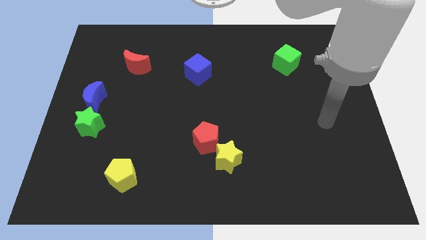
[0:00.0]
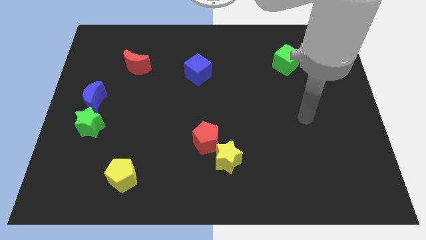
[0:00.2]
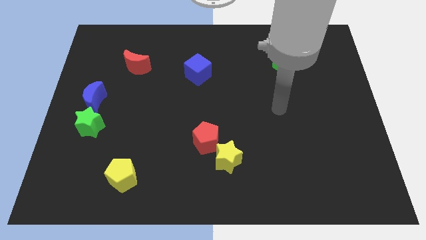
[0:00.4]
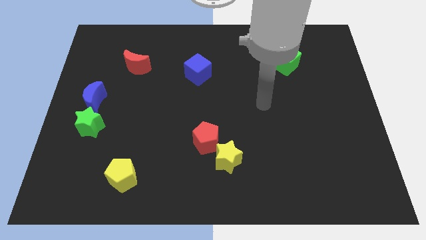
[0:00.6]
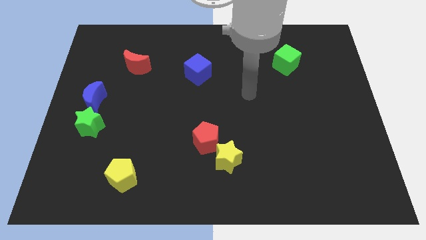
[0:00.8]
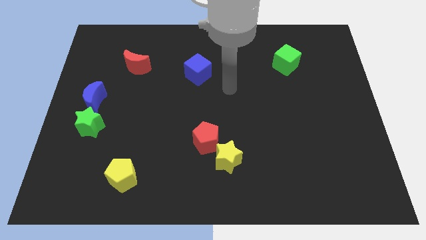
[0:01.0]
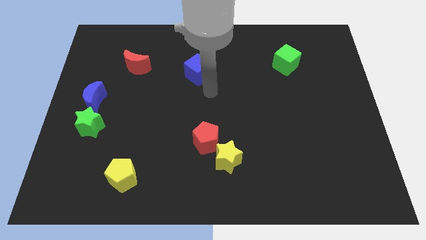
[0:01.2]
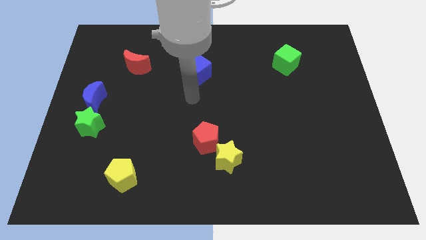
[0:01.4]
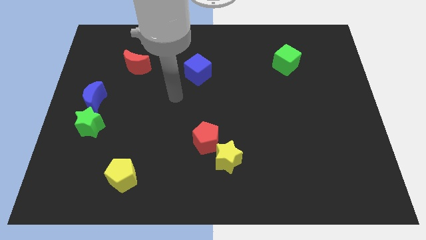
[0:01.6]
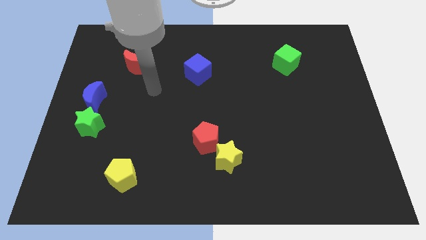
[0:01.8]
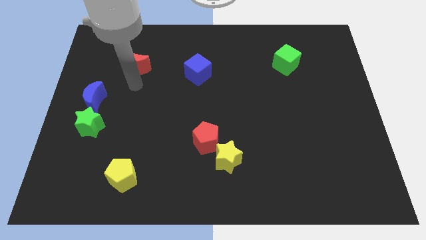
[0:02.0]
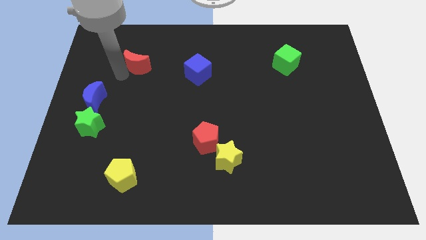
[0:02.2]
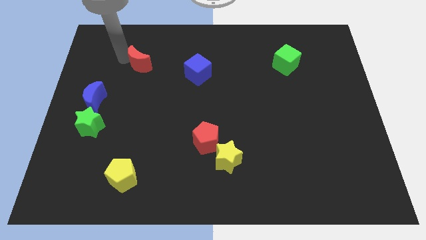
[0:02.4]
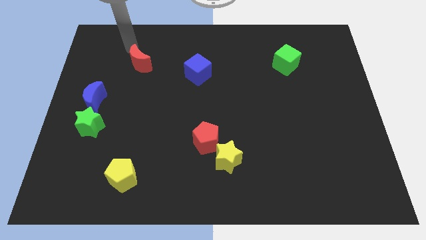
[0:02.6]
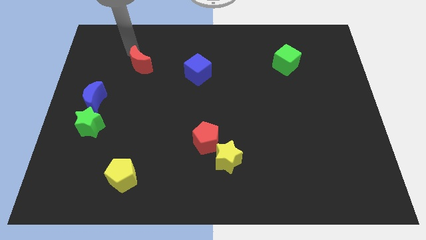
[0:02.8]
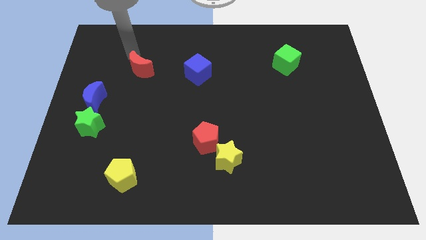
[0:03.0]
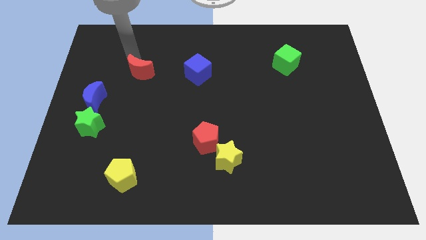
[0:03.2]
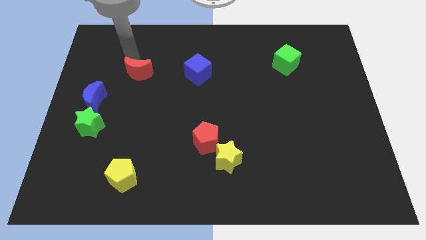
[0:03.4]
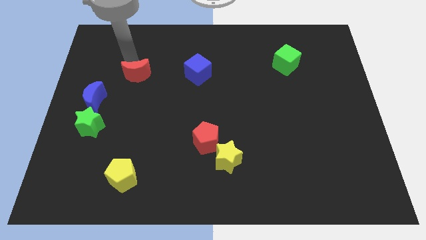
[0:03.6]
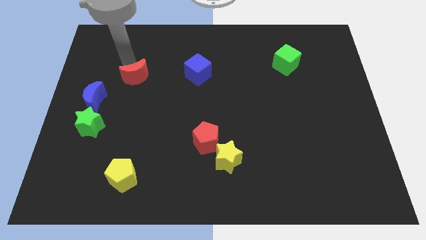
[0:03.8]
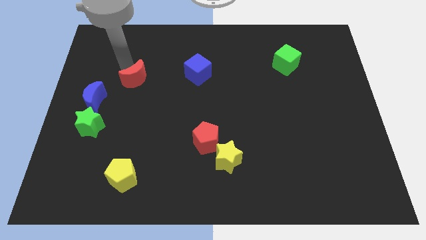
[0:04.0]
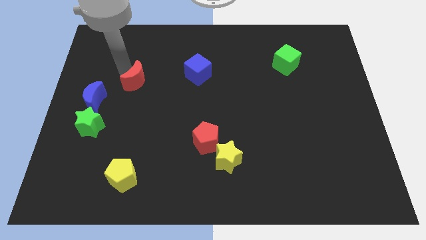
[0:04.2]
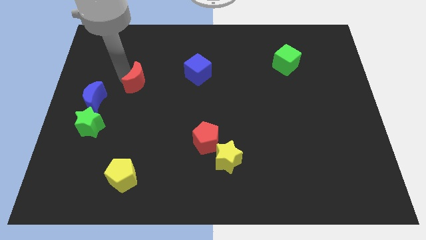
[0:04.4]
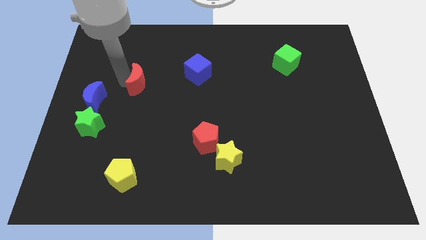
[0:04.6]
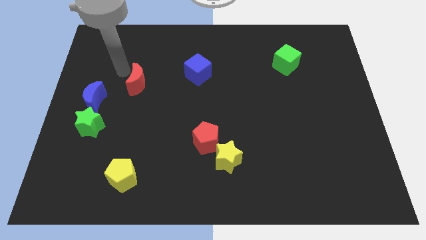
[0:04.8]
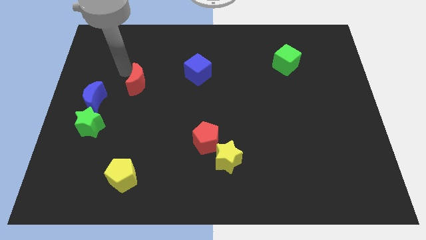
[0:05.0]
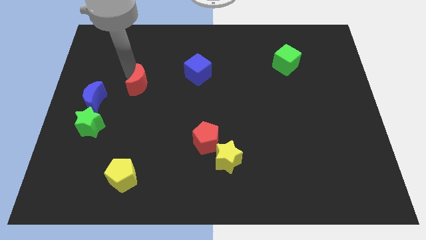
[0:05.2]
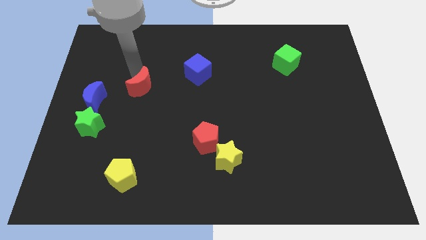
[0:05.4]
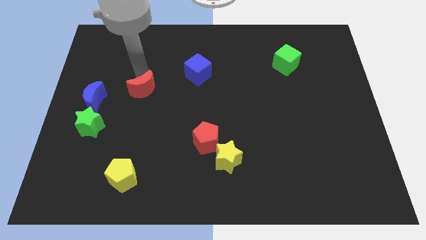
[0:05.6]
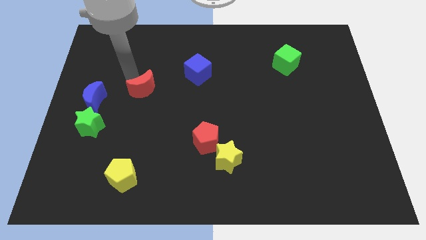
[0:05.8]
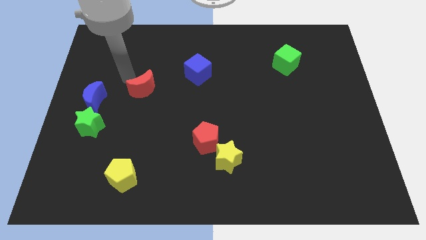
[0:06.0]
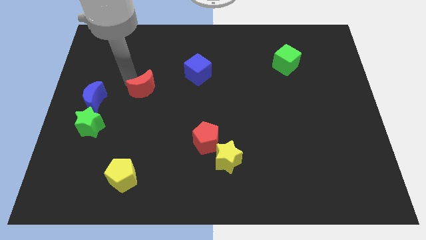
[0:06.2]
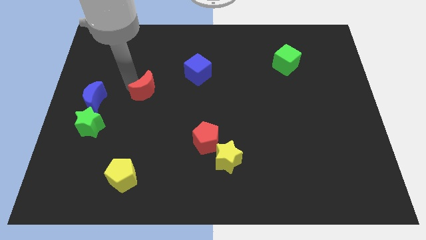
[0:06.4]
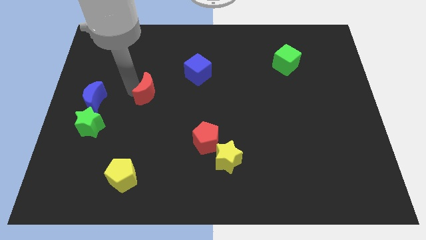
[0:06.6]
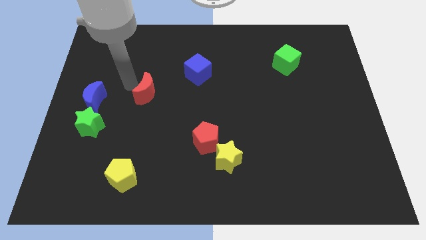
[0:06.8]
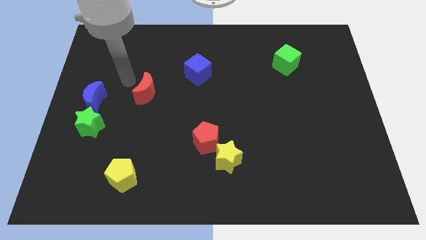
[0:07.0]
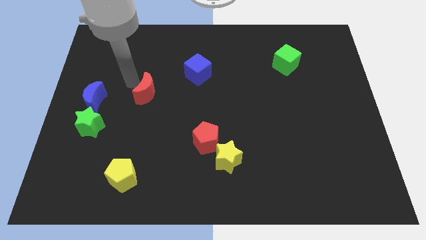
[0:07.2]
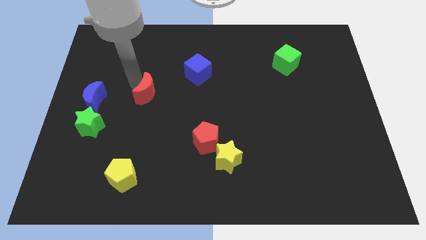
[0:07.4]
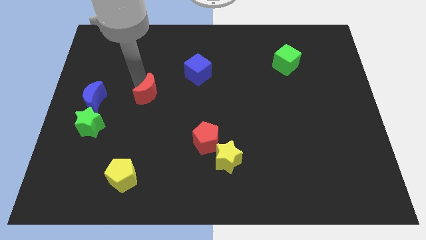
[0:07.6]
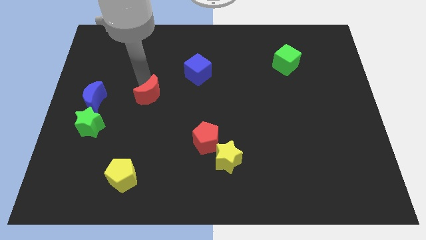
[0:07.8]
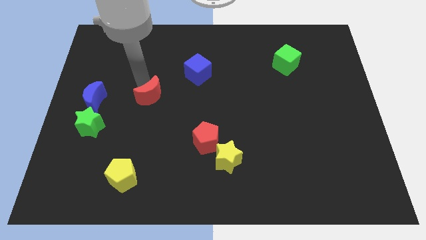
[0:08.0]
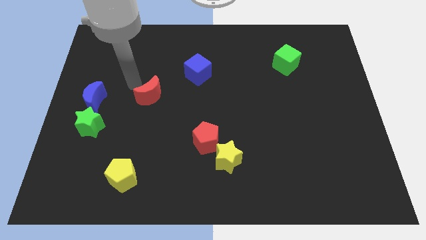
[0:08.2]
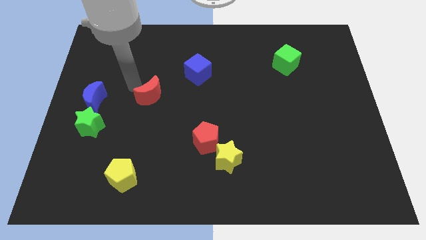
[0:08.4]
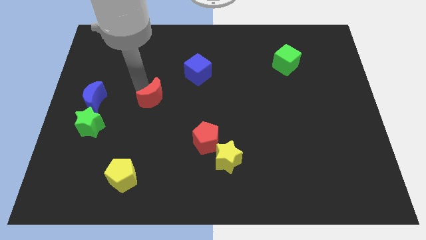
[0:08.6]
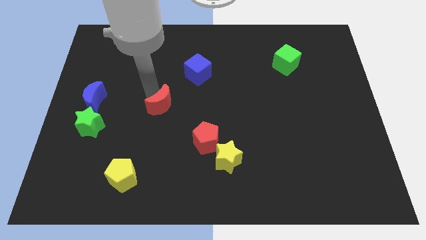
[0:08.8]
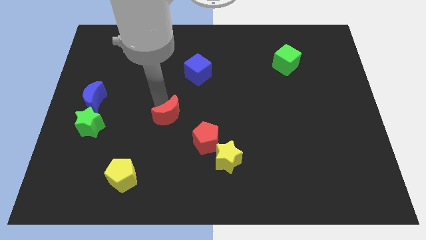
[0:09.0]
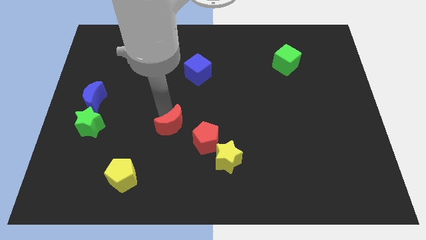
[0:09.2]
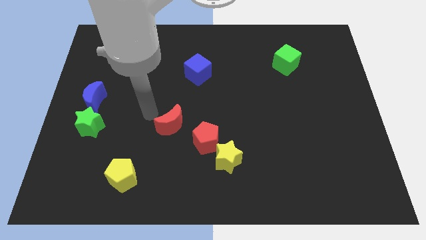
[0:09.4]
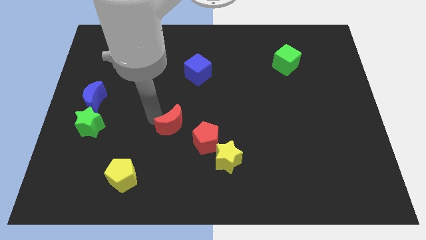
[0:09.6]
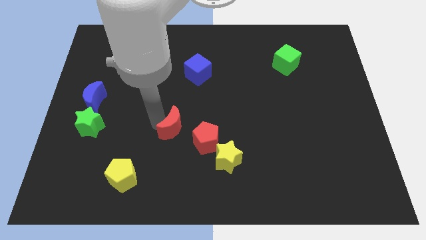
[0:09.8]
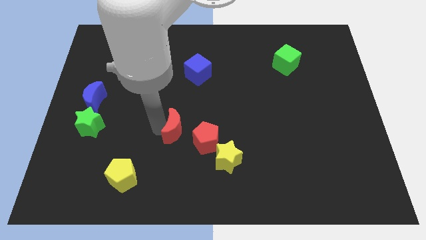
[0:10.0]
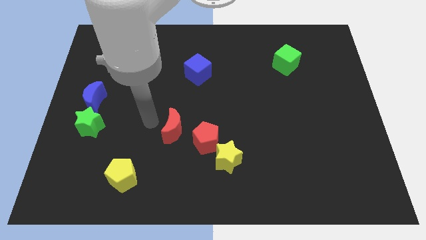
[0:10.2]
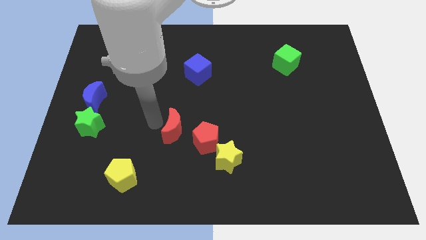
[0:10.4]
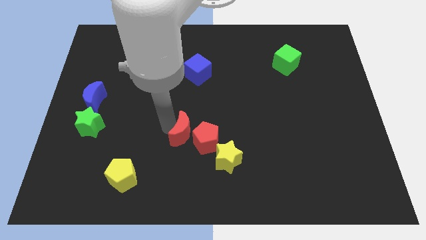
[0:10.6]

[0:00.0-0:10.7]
push the red moon next to the red pentagon

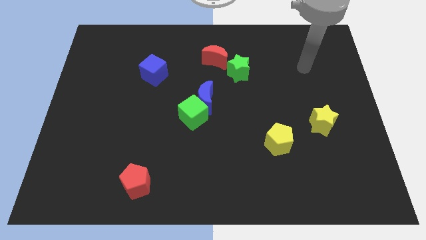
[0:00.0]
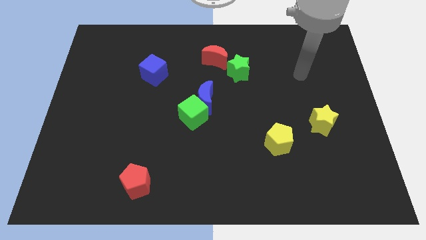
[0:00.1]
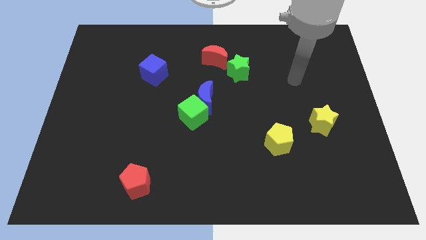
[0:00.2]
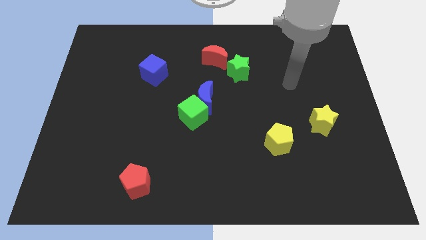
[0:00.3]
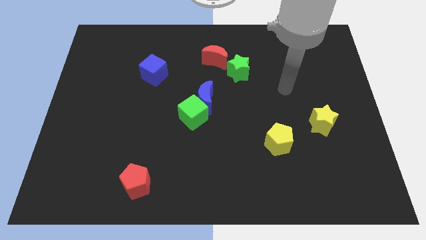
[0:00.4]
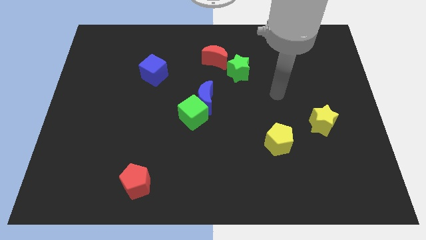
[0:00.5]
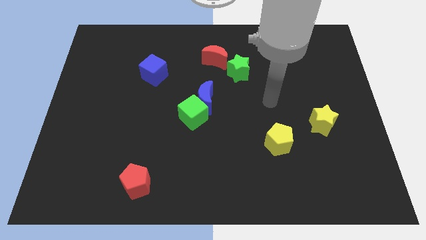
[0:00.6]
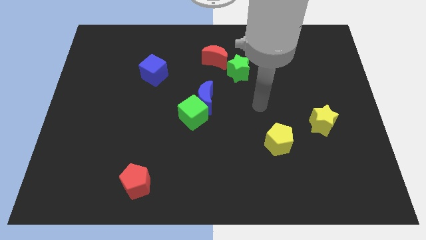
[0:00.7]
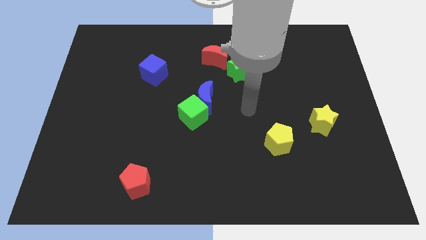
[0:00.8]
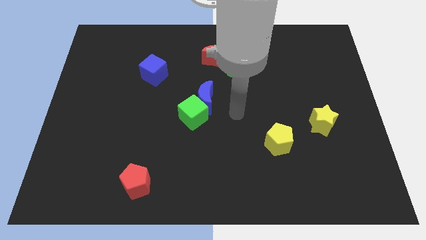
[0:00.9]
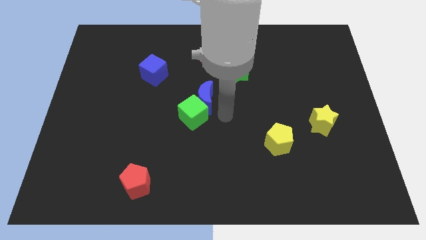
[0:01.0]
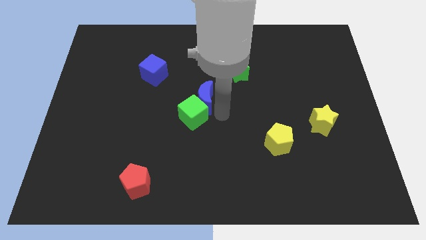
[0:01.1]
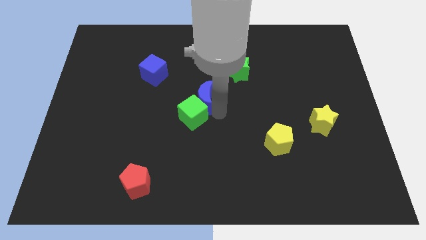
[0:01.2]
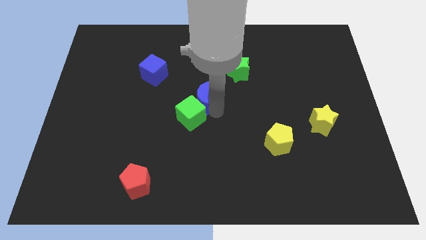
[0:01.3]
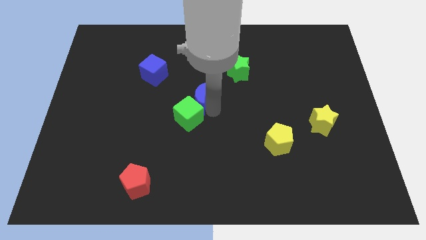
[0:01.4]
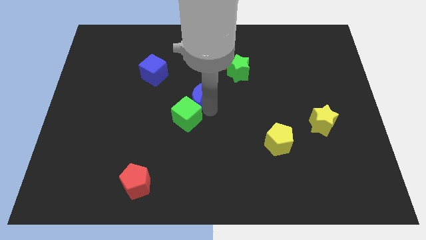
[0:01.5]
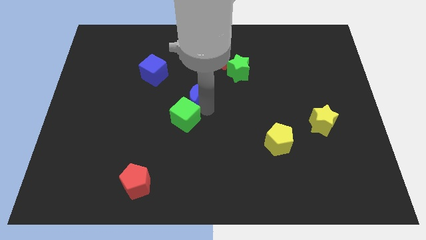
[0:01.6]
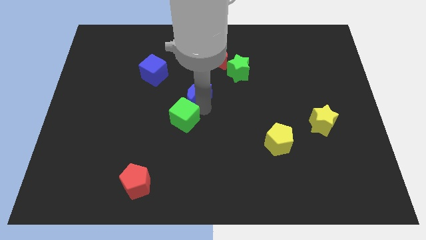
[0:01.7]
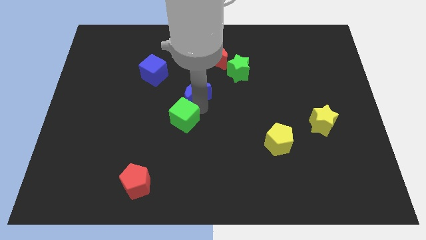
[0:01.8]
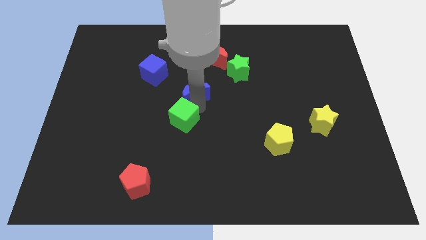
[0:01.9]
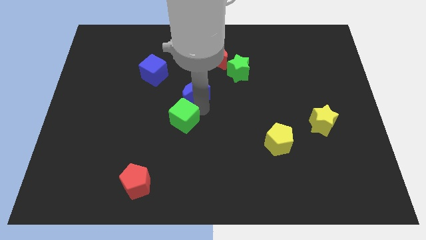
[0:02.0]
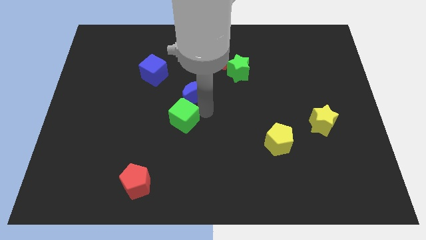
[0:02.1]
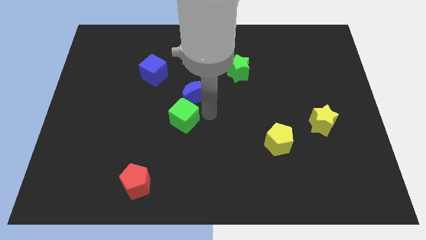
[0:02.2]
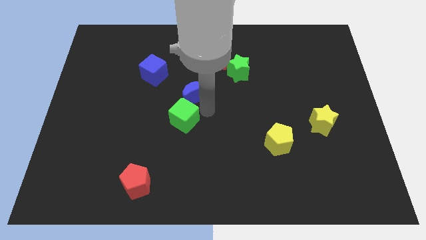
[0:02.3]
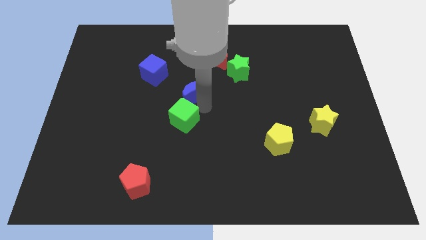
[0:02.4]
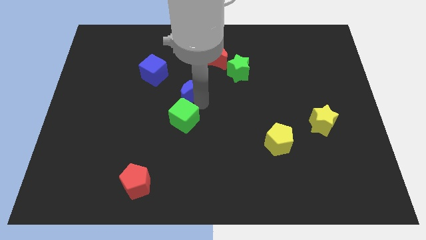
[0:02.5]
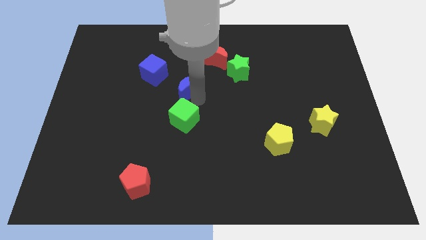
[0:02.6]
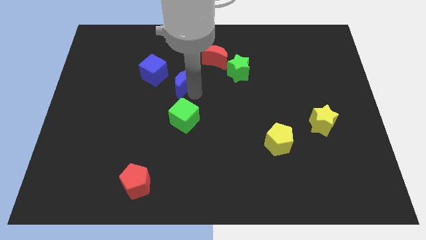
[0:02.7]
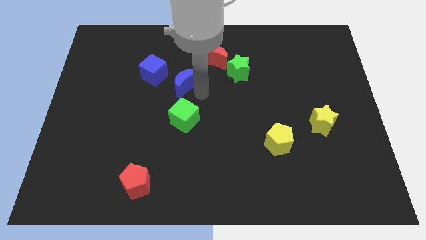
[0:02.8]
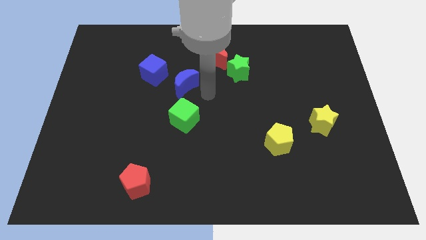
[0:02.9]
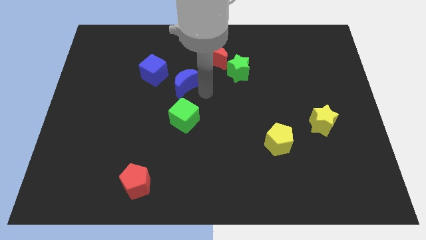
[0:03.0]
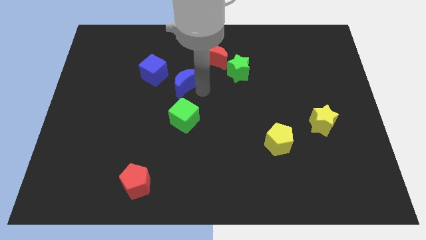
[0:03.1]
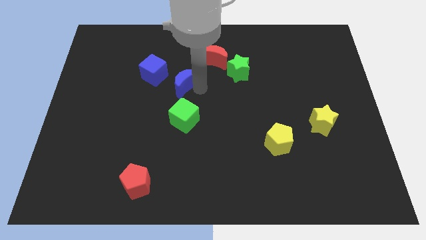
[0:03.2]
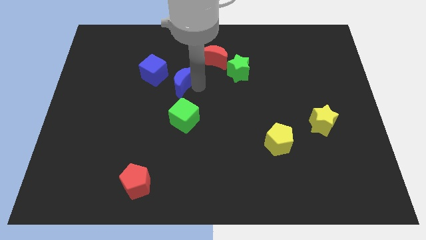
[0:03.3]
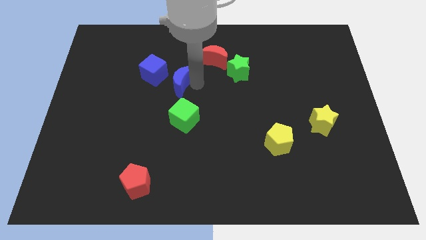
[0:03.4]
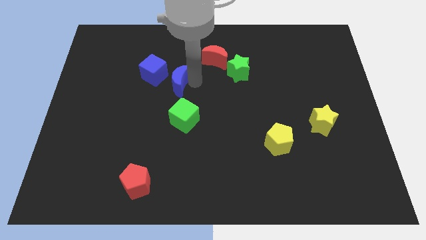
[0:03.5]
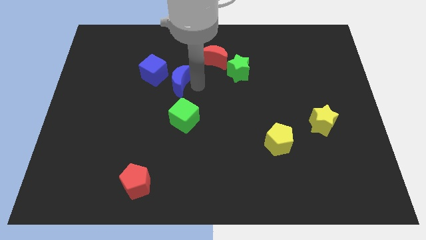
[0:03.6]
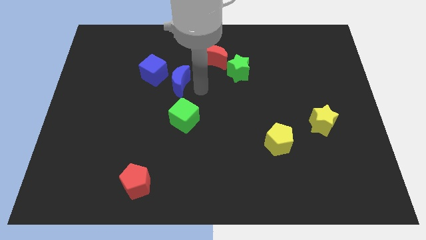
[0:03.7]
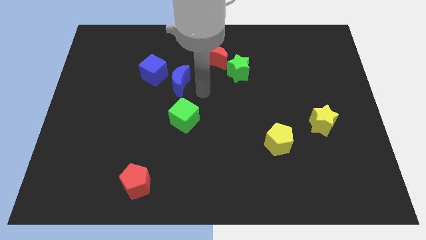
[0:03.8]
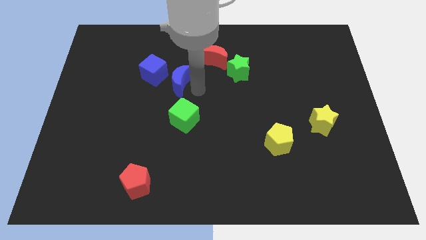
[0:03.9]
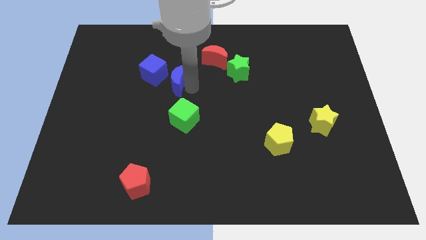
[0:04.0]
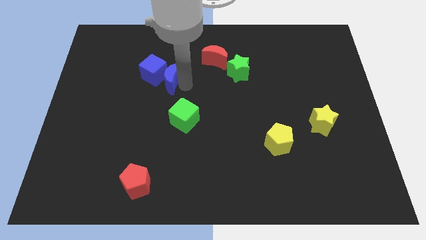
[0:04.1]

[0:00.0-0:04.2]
push the blue moon towards the blue cube
